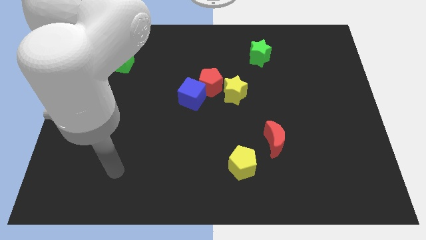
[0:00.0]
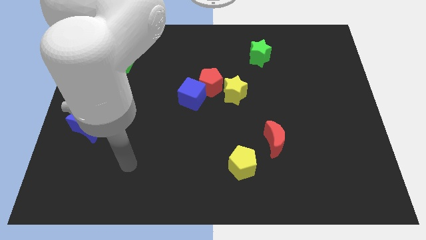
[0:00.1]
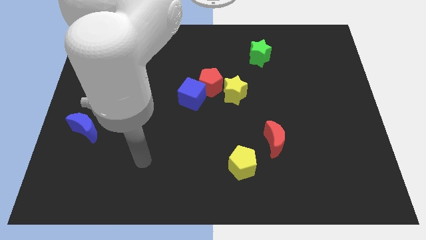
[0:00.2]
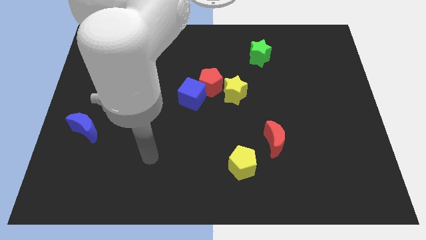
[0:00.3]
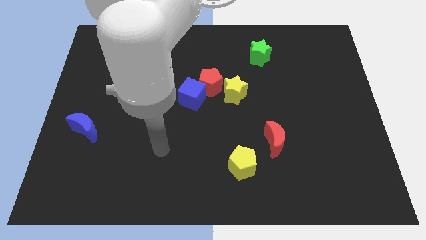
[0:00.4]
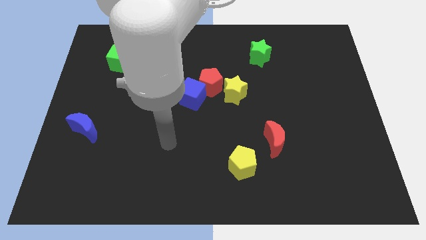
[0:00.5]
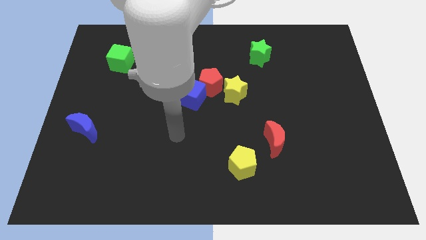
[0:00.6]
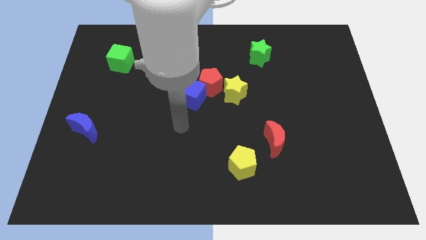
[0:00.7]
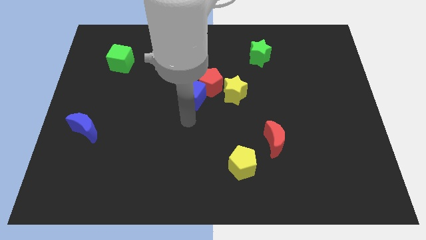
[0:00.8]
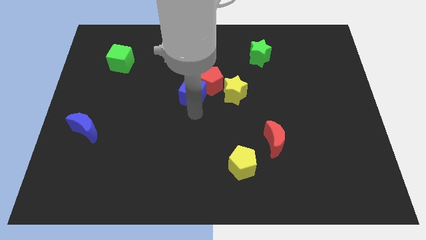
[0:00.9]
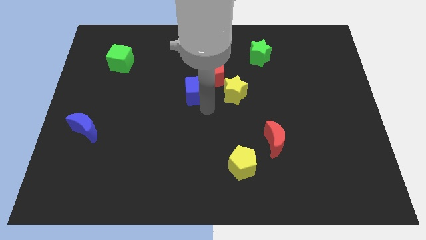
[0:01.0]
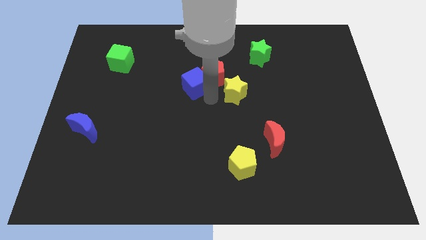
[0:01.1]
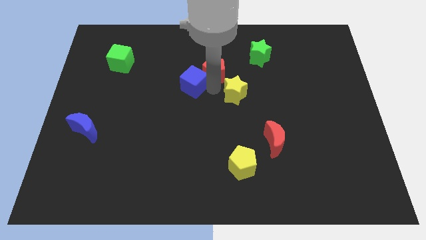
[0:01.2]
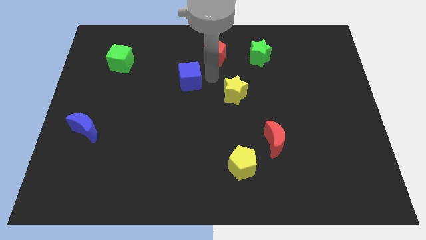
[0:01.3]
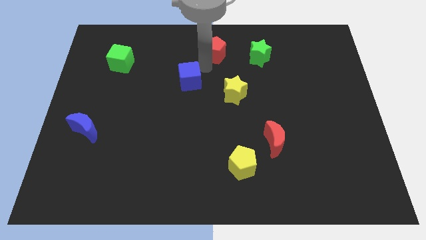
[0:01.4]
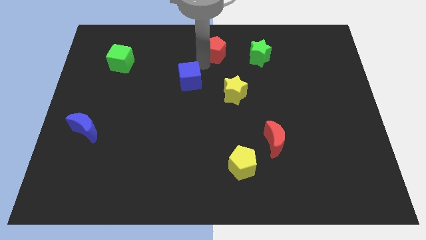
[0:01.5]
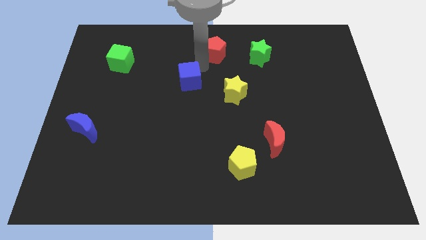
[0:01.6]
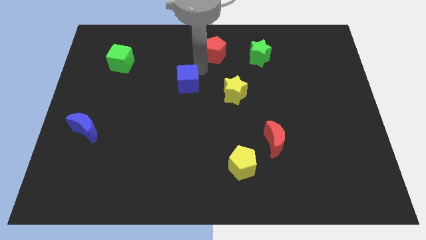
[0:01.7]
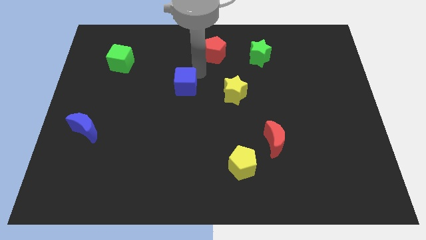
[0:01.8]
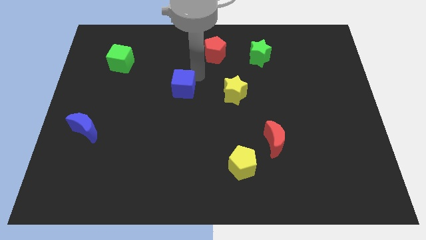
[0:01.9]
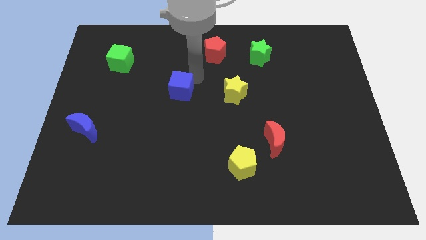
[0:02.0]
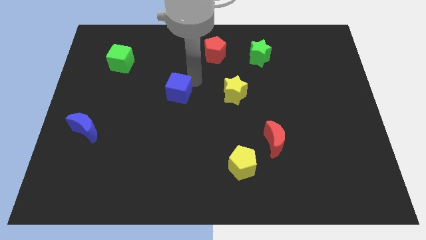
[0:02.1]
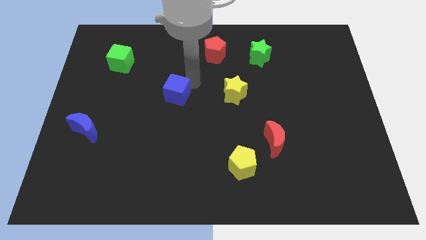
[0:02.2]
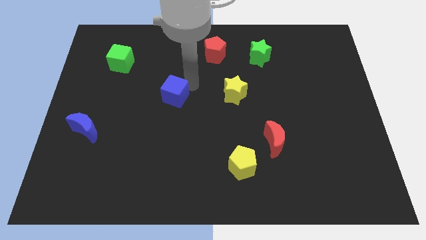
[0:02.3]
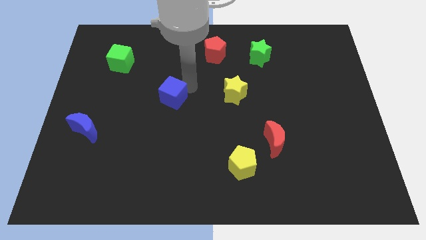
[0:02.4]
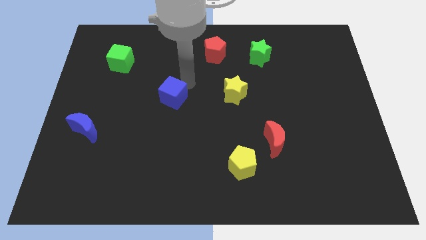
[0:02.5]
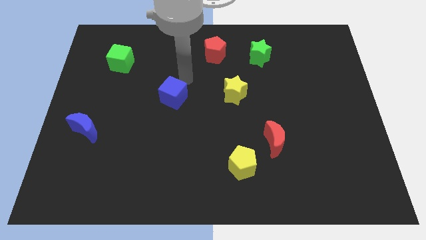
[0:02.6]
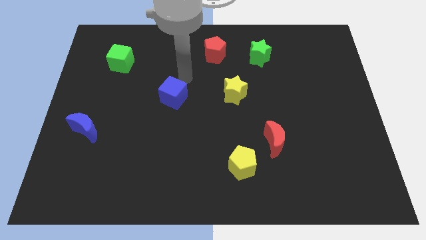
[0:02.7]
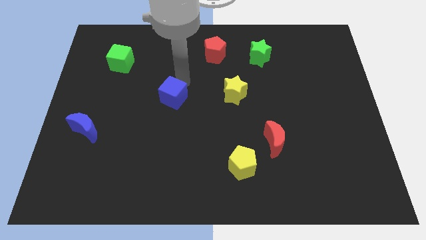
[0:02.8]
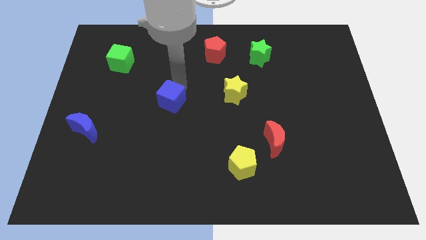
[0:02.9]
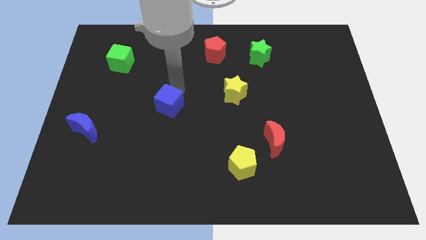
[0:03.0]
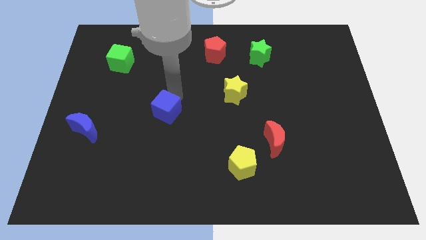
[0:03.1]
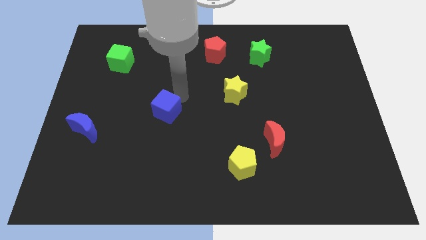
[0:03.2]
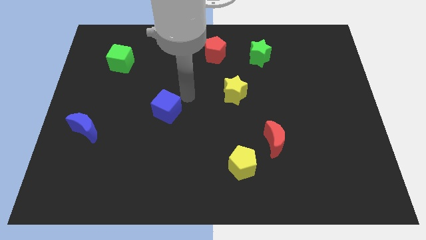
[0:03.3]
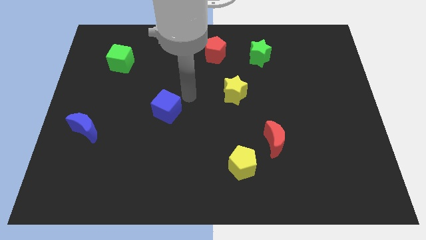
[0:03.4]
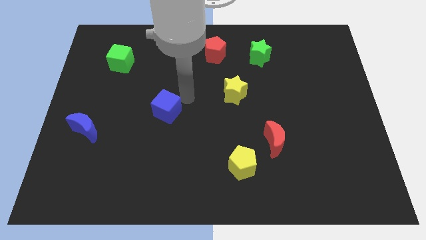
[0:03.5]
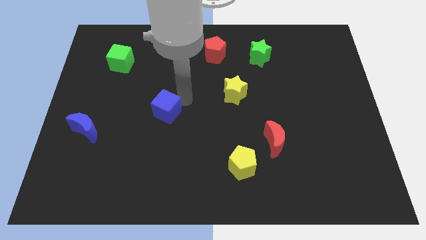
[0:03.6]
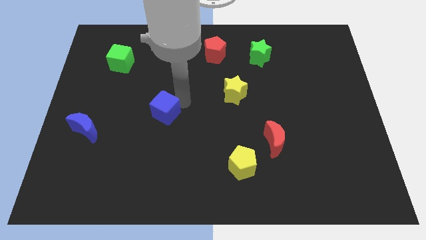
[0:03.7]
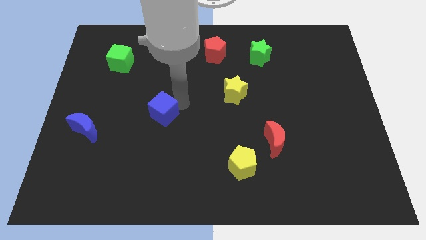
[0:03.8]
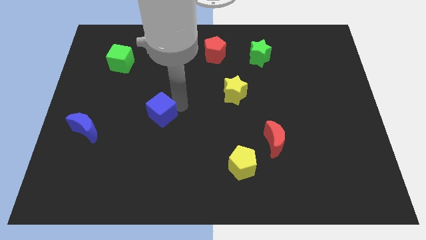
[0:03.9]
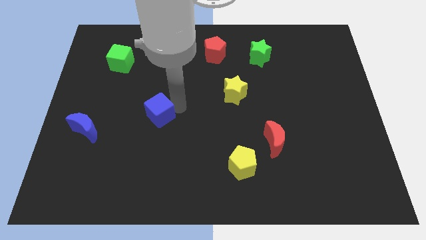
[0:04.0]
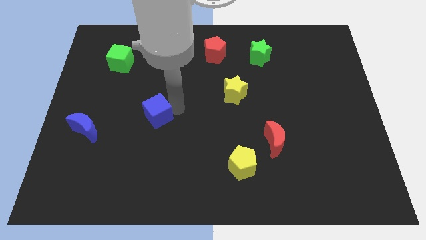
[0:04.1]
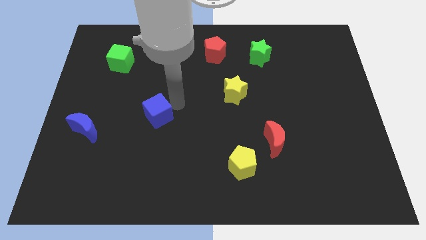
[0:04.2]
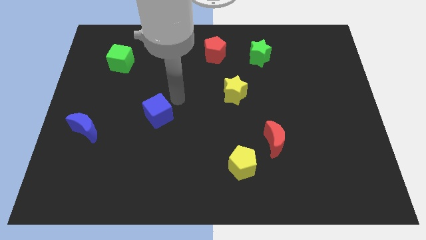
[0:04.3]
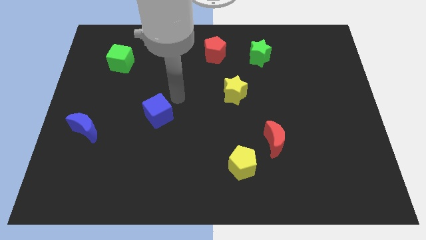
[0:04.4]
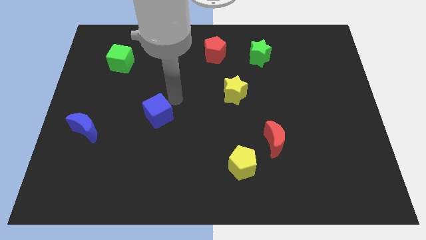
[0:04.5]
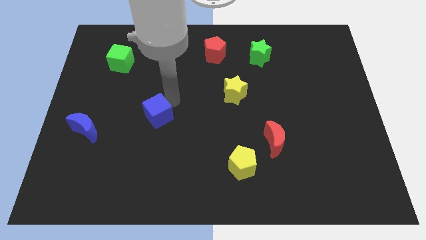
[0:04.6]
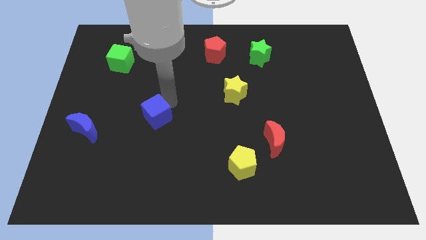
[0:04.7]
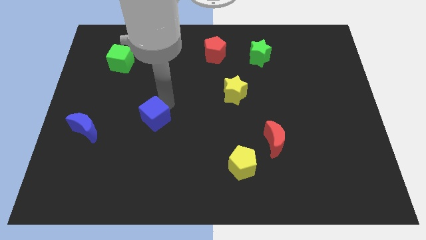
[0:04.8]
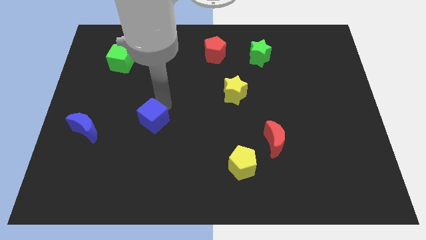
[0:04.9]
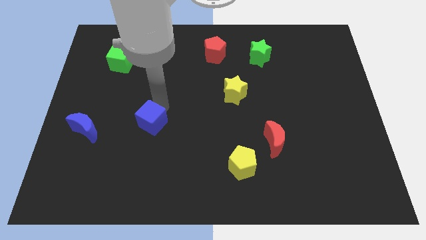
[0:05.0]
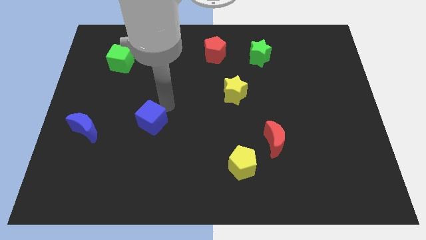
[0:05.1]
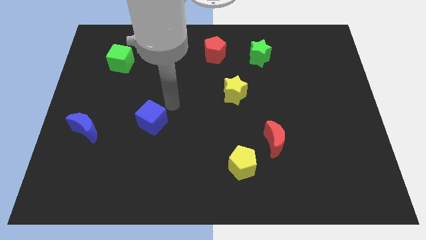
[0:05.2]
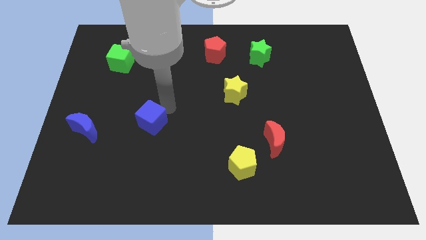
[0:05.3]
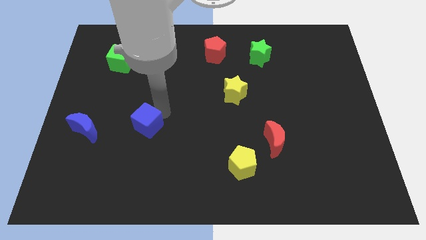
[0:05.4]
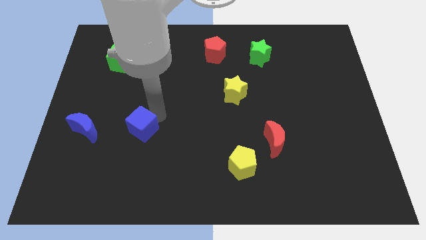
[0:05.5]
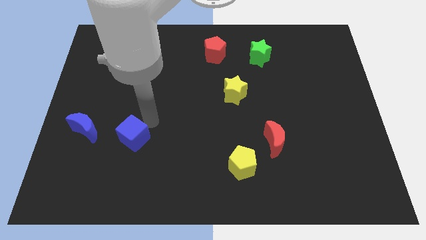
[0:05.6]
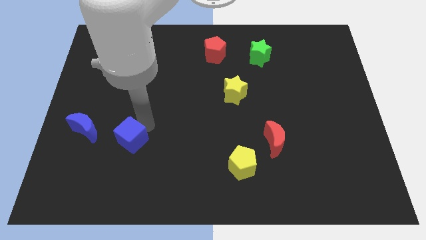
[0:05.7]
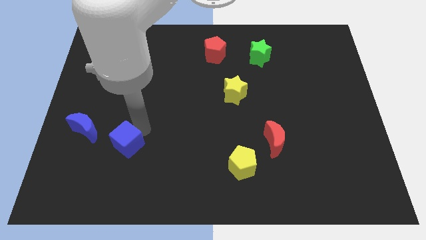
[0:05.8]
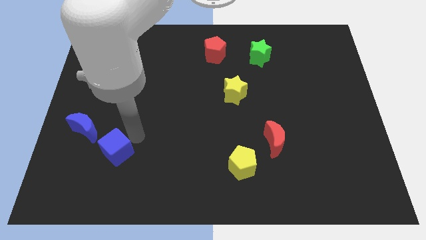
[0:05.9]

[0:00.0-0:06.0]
move the blue cube diagonally downwards and to the left

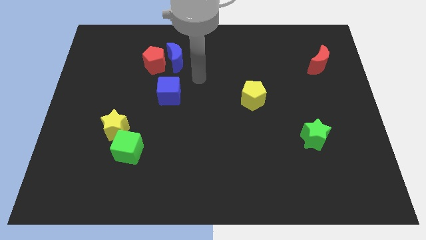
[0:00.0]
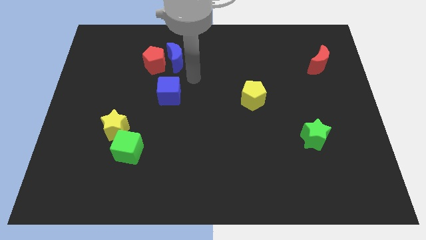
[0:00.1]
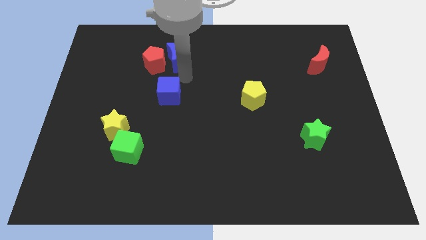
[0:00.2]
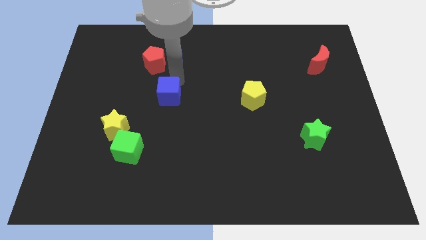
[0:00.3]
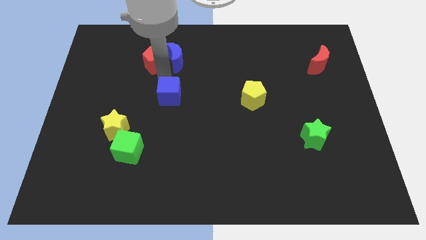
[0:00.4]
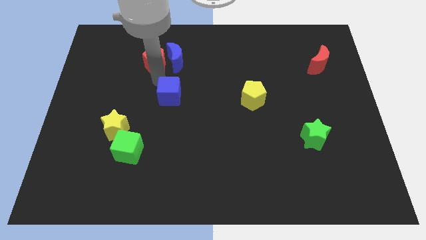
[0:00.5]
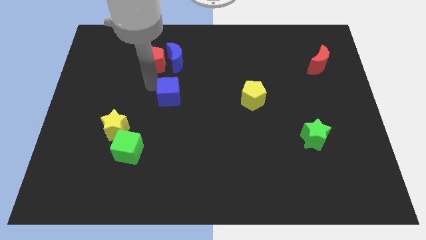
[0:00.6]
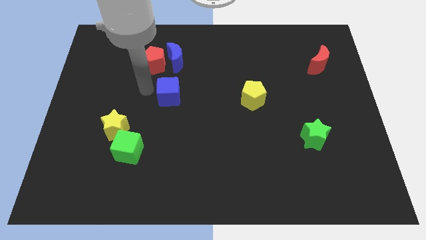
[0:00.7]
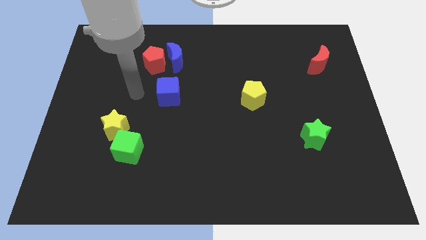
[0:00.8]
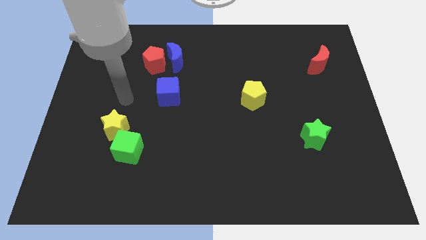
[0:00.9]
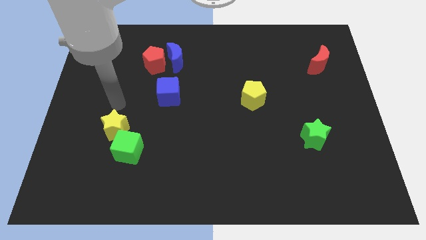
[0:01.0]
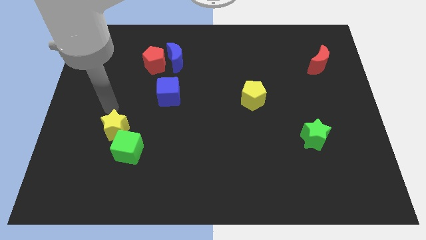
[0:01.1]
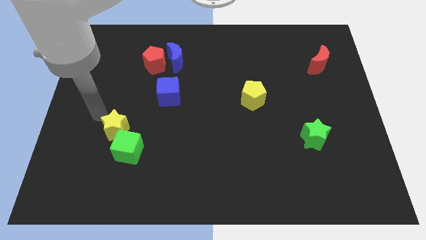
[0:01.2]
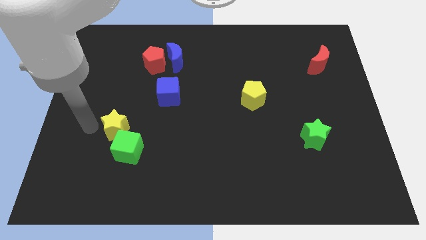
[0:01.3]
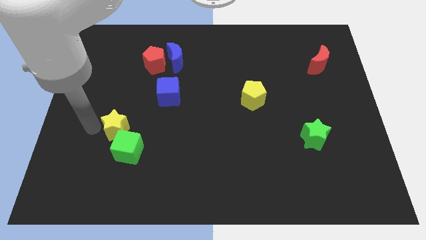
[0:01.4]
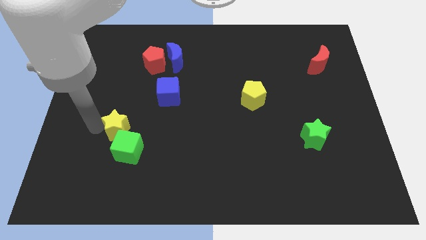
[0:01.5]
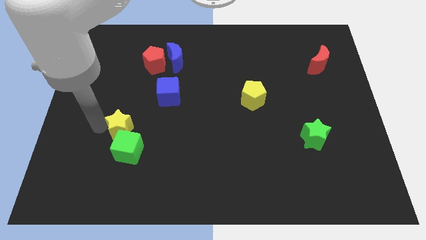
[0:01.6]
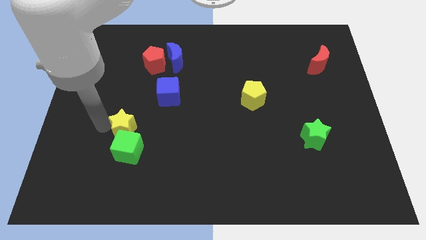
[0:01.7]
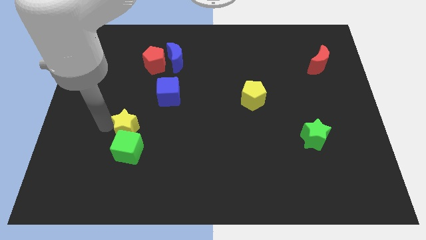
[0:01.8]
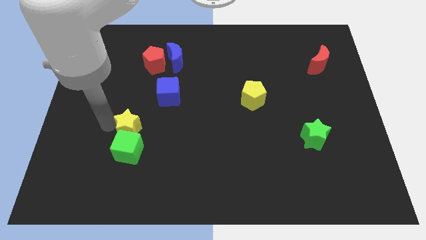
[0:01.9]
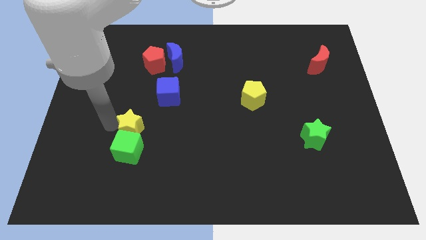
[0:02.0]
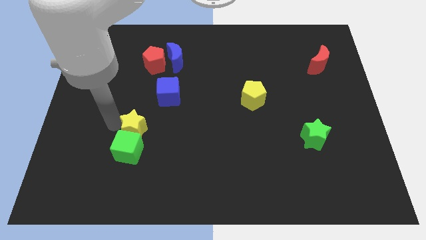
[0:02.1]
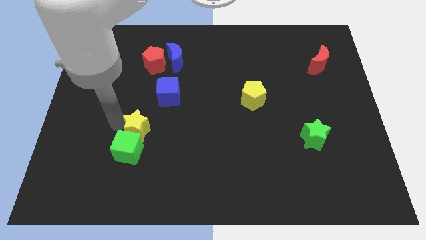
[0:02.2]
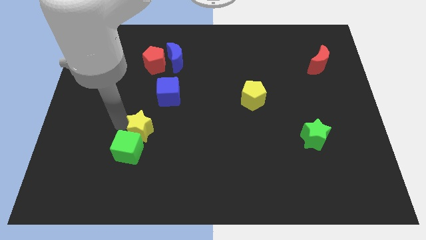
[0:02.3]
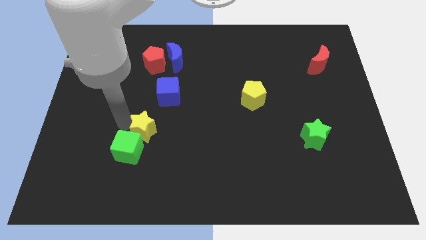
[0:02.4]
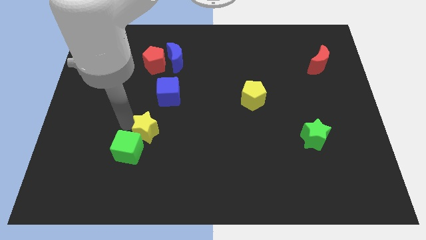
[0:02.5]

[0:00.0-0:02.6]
push the yellow star somewhat right
